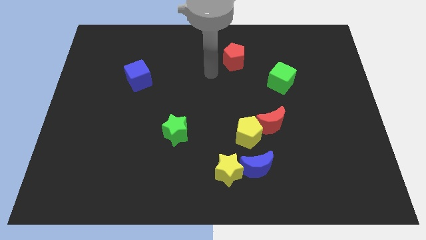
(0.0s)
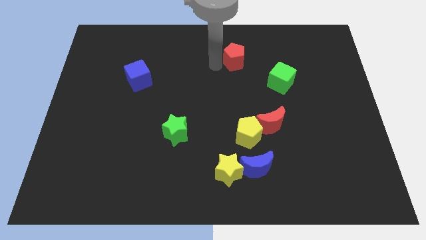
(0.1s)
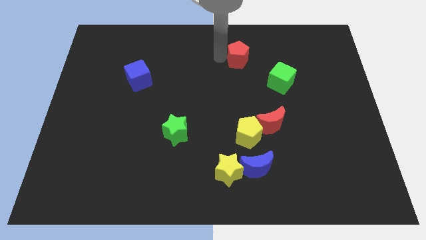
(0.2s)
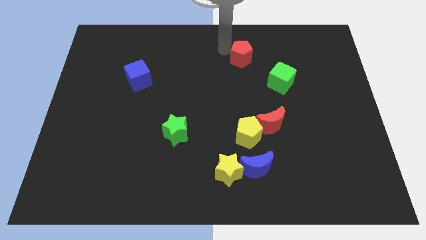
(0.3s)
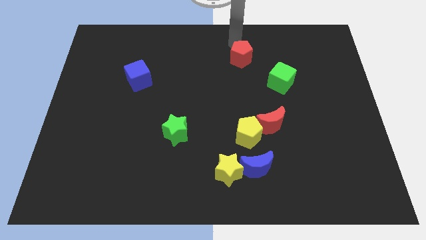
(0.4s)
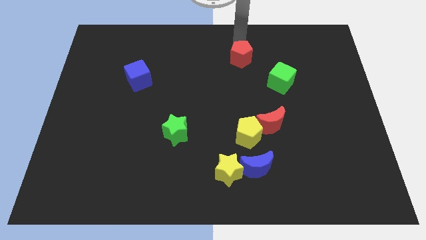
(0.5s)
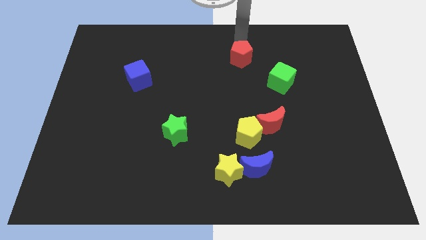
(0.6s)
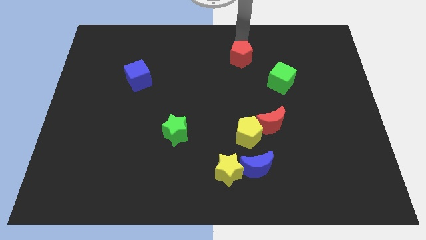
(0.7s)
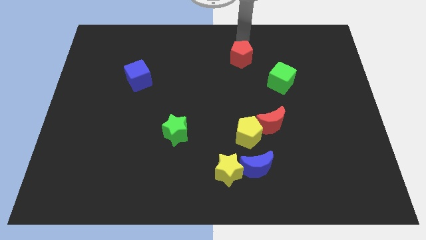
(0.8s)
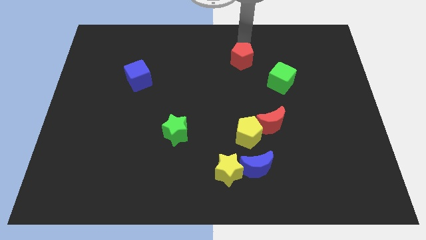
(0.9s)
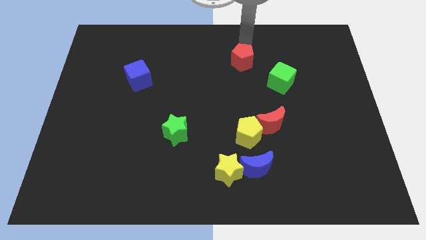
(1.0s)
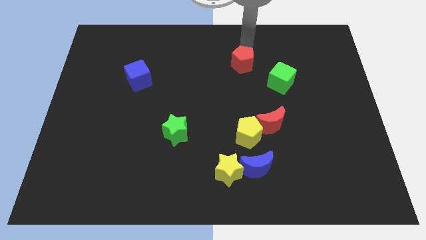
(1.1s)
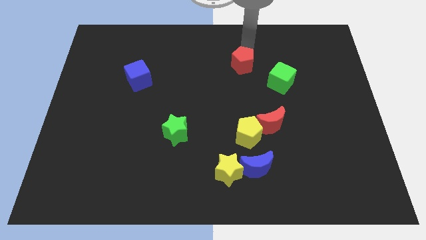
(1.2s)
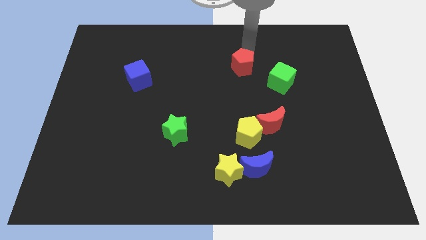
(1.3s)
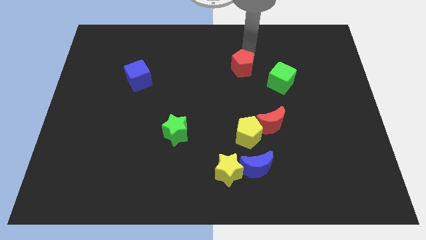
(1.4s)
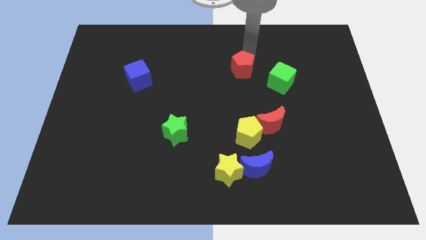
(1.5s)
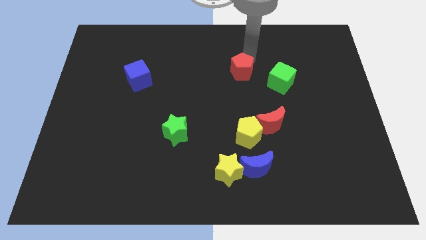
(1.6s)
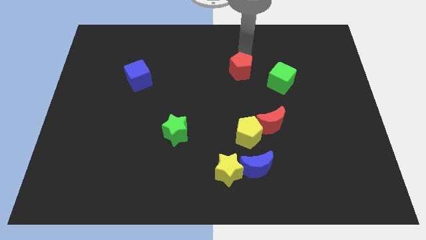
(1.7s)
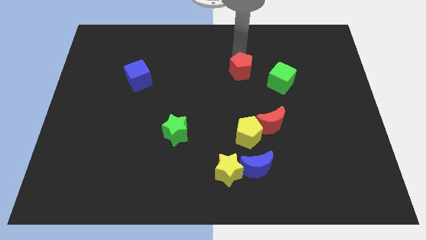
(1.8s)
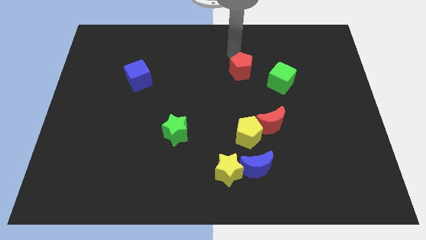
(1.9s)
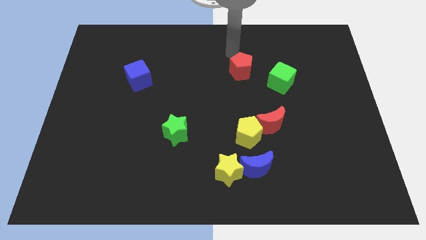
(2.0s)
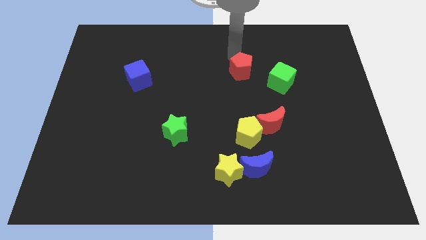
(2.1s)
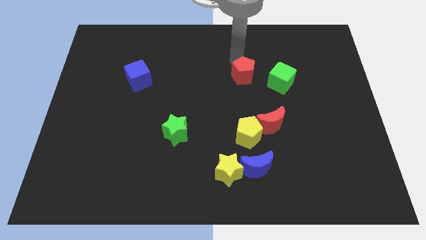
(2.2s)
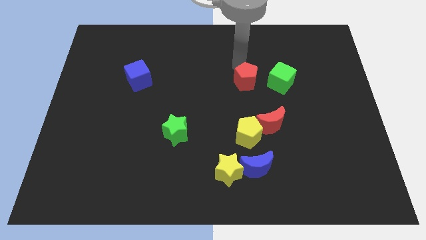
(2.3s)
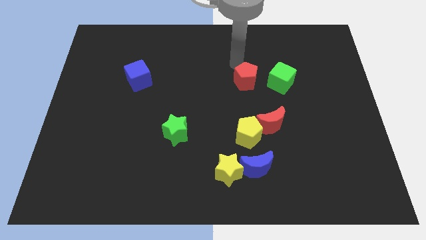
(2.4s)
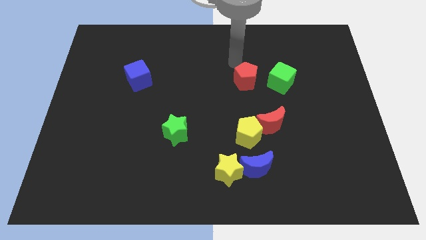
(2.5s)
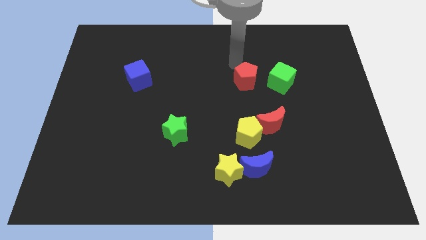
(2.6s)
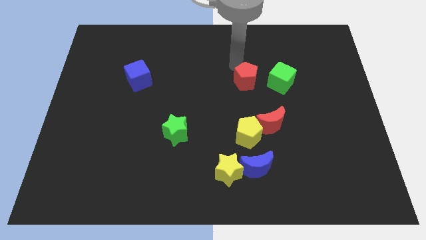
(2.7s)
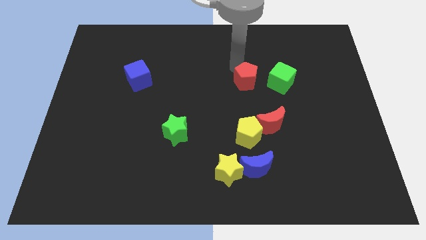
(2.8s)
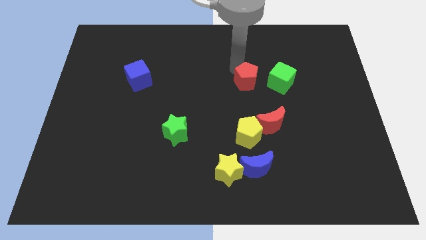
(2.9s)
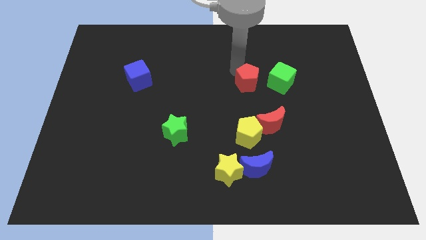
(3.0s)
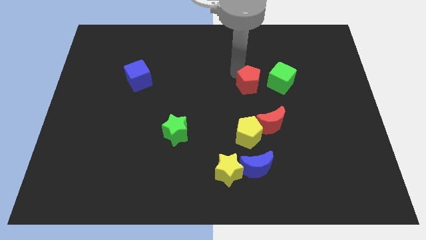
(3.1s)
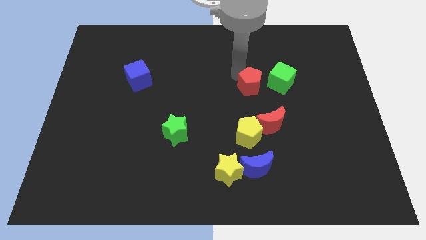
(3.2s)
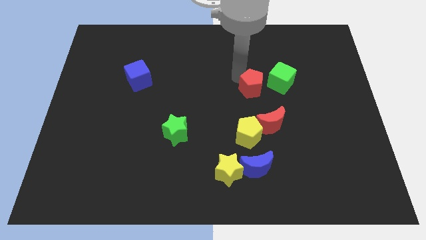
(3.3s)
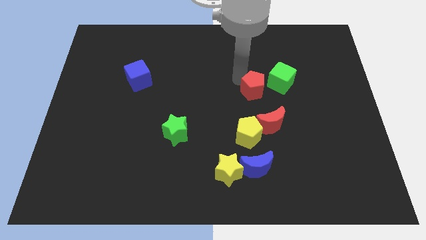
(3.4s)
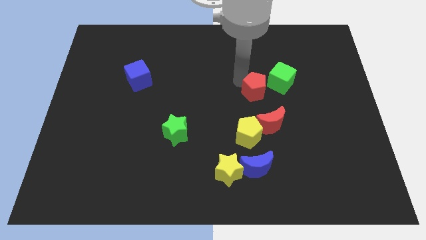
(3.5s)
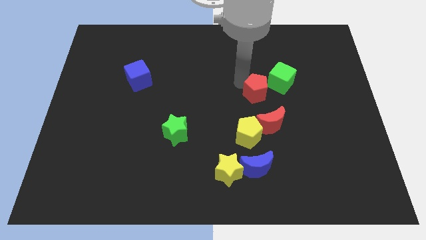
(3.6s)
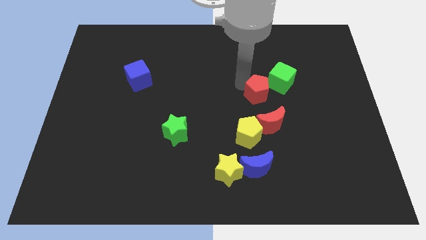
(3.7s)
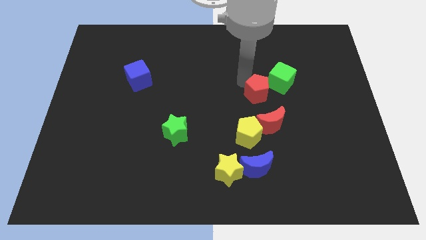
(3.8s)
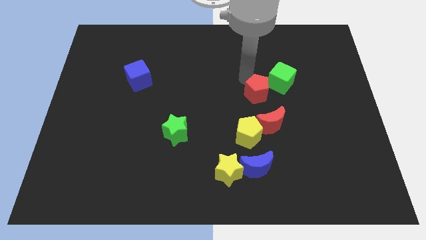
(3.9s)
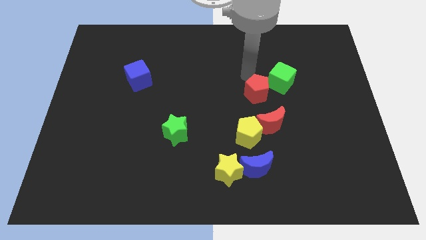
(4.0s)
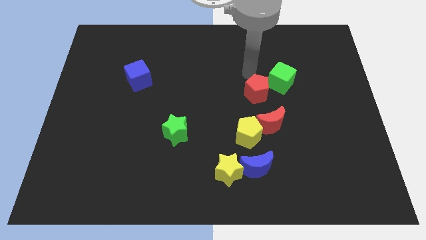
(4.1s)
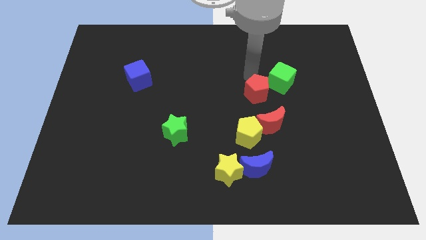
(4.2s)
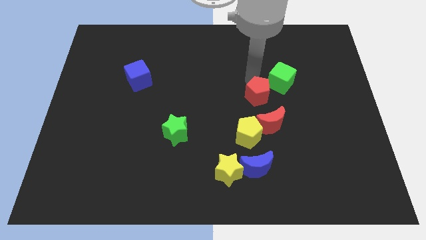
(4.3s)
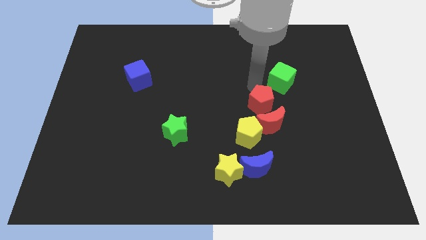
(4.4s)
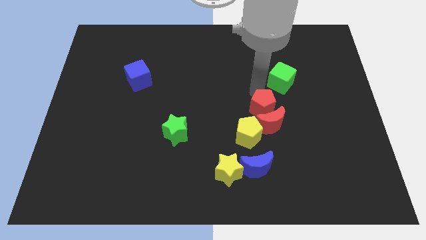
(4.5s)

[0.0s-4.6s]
move the red pentagon towards the red moon

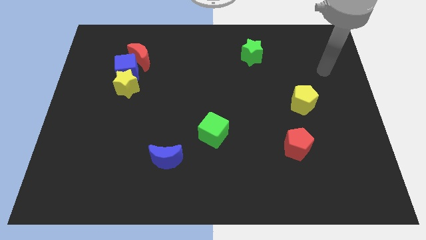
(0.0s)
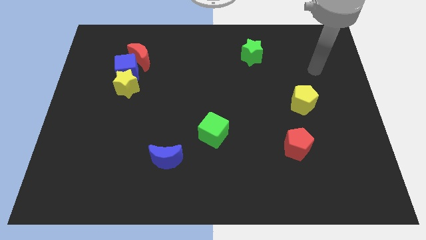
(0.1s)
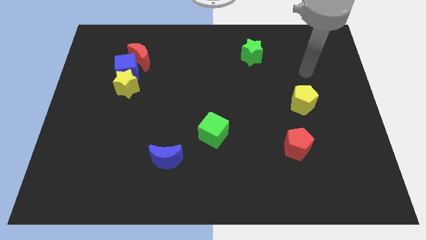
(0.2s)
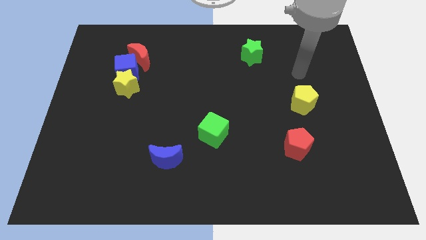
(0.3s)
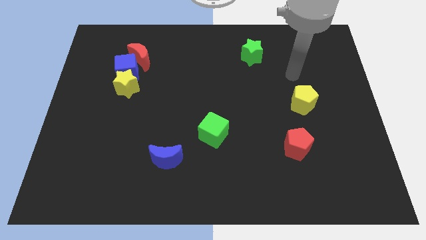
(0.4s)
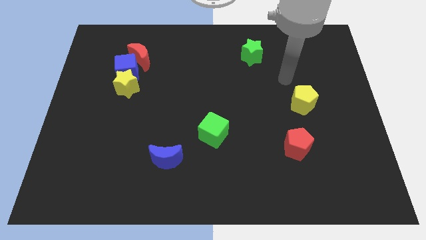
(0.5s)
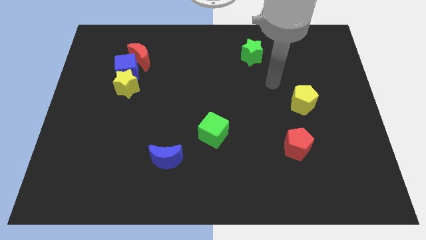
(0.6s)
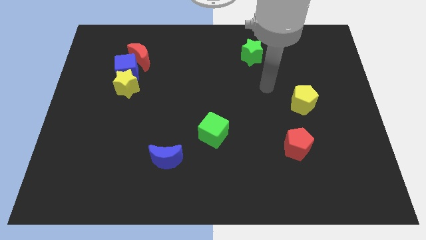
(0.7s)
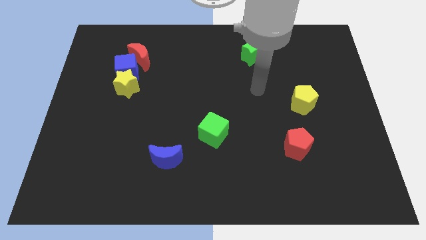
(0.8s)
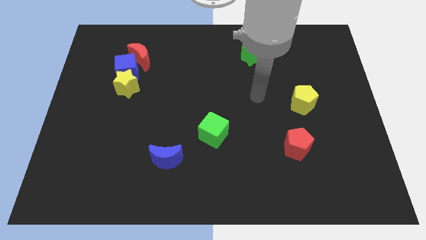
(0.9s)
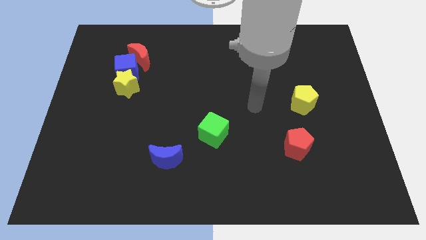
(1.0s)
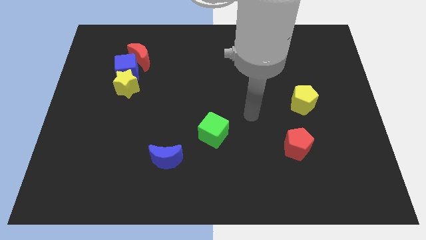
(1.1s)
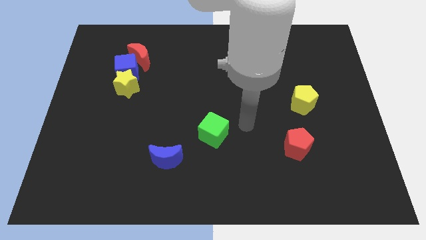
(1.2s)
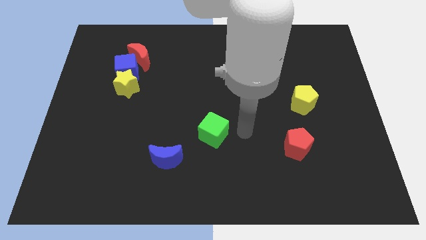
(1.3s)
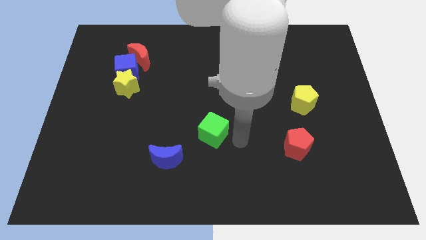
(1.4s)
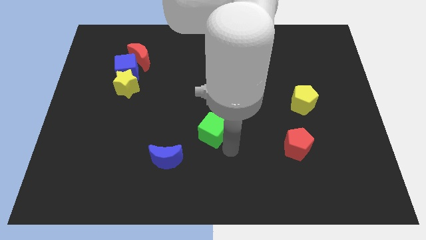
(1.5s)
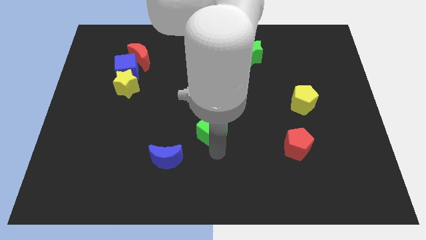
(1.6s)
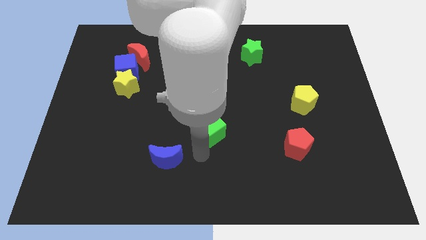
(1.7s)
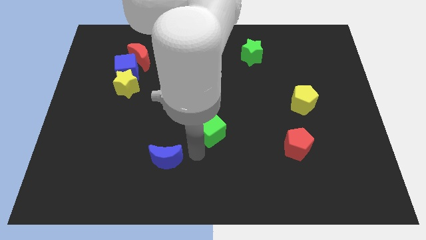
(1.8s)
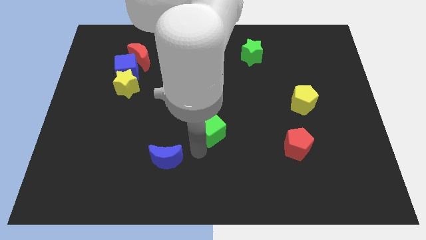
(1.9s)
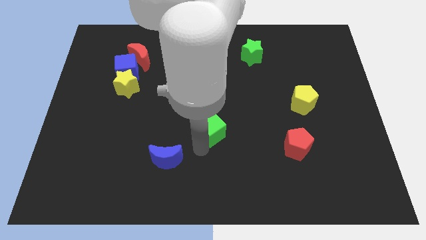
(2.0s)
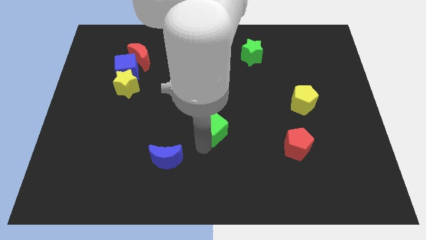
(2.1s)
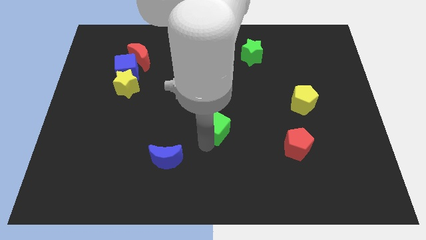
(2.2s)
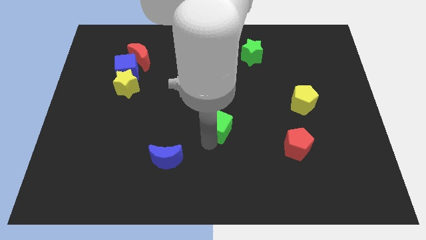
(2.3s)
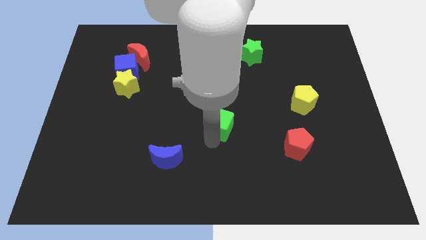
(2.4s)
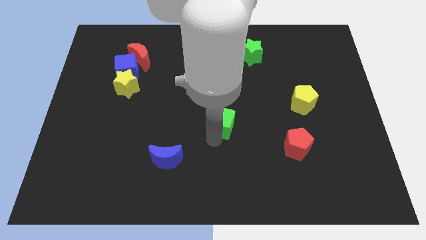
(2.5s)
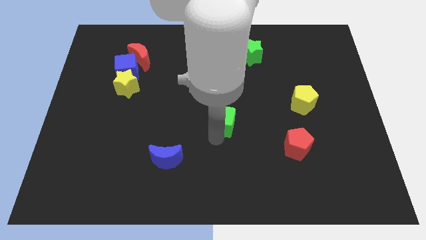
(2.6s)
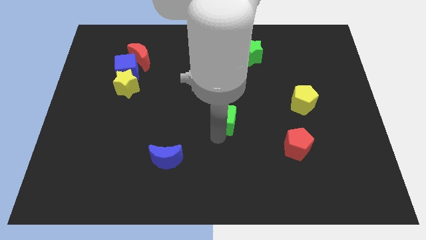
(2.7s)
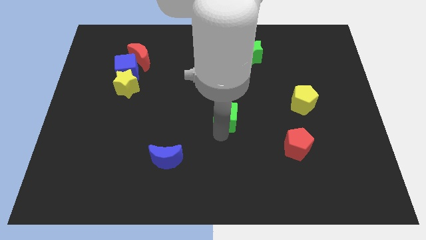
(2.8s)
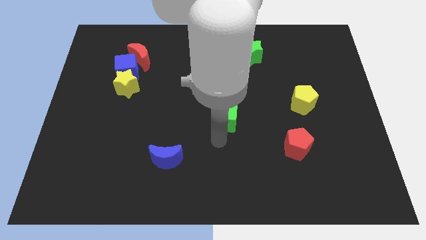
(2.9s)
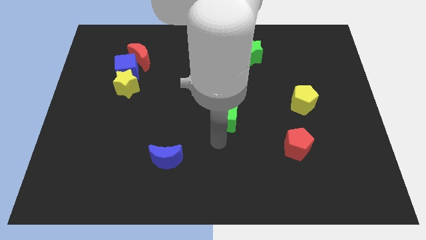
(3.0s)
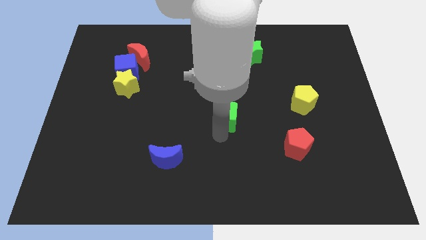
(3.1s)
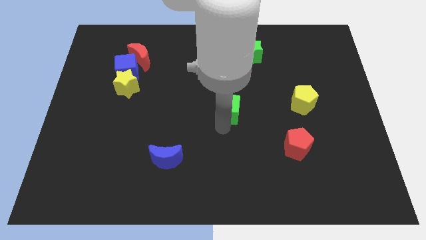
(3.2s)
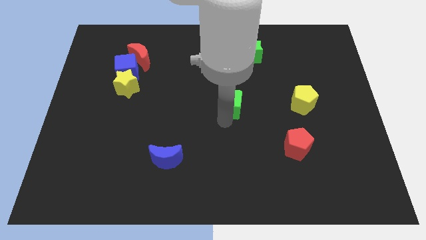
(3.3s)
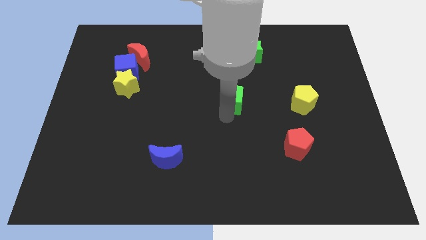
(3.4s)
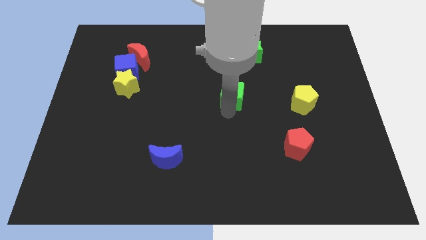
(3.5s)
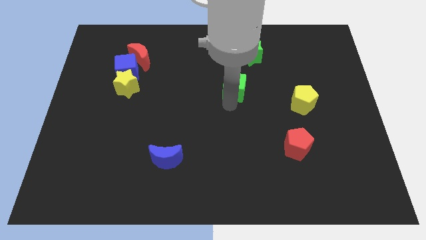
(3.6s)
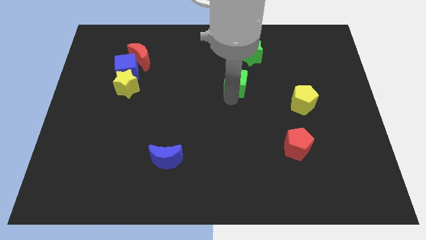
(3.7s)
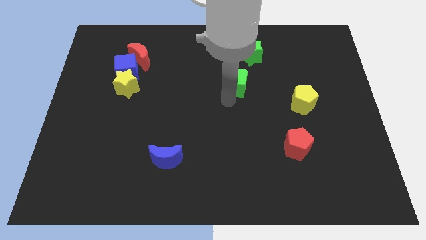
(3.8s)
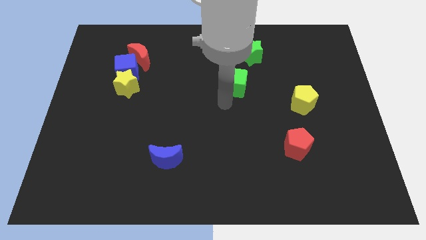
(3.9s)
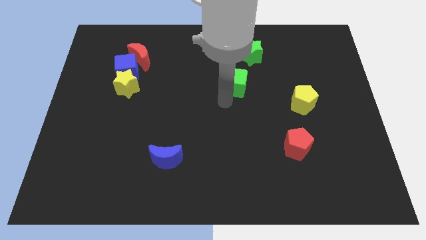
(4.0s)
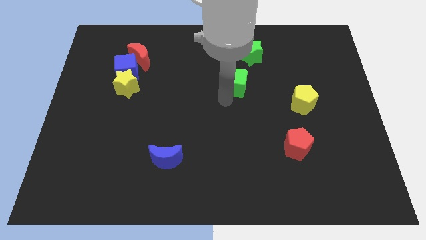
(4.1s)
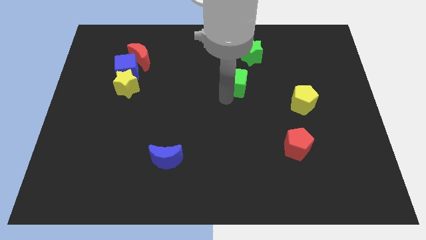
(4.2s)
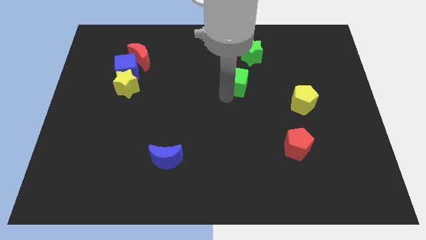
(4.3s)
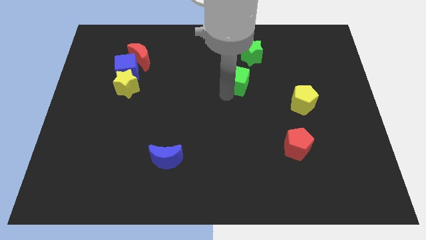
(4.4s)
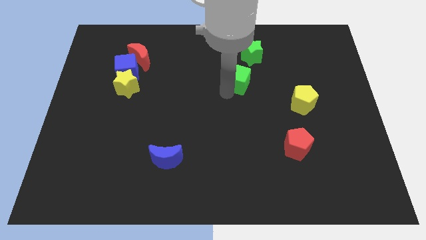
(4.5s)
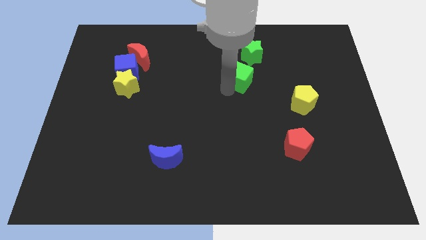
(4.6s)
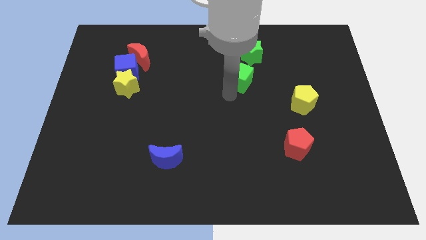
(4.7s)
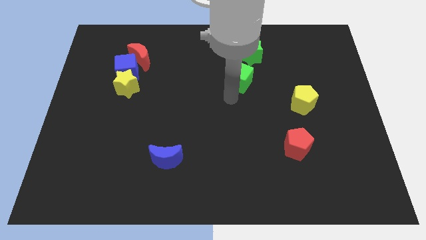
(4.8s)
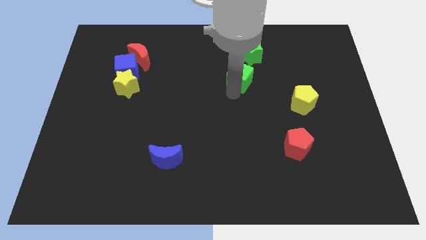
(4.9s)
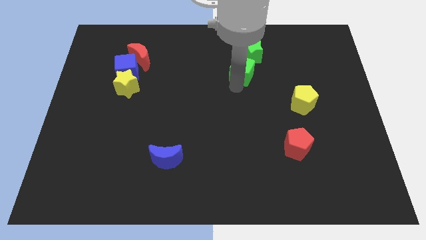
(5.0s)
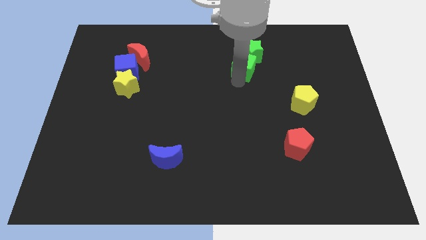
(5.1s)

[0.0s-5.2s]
push the green cube next to the green star
